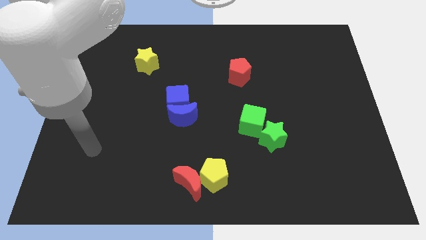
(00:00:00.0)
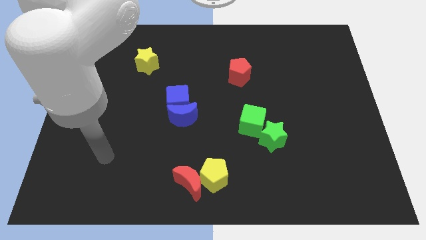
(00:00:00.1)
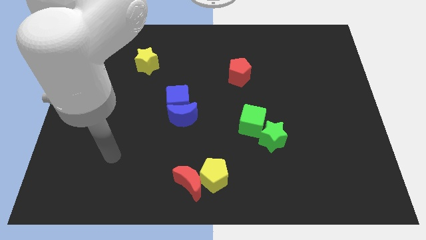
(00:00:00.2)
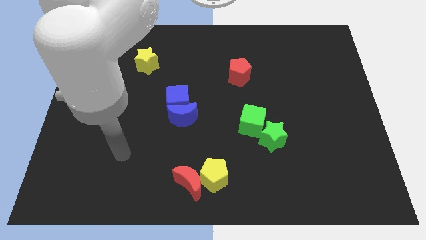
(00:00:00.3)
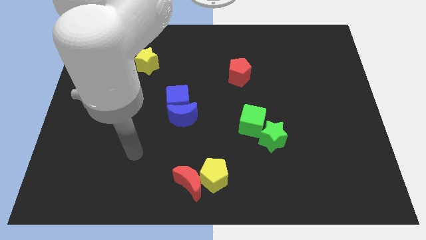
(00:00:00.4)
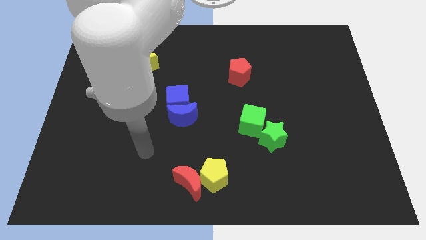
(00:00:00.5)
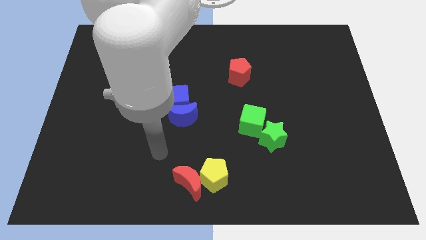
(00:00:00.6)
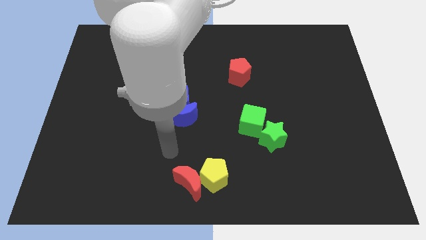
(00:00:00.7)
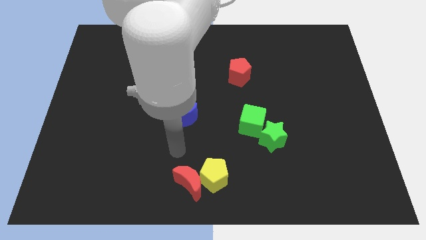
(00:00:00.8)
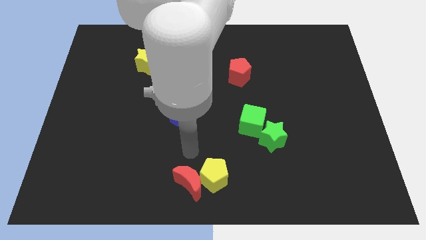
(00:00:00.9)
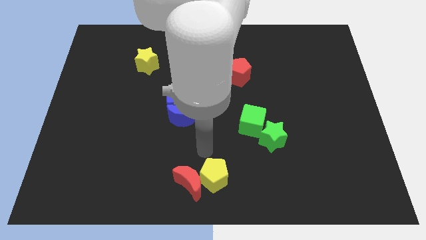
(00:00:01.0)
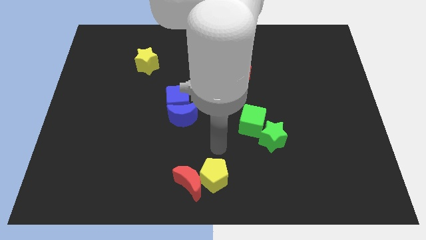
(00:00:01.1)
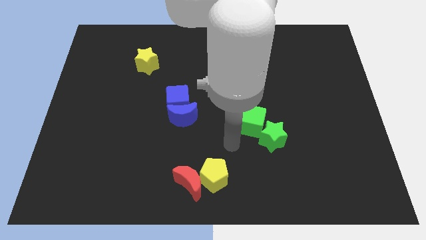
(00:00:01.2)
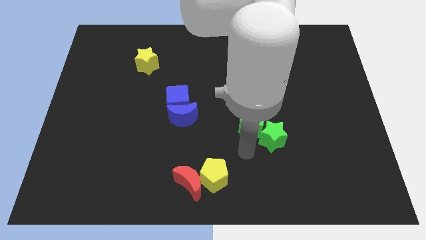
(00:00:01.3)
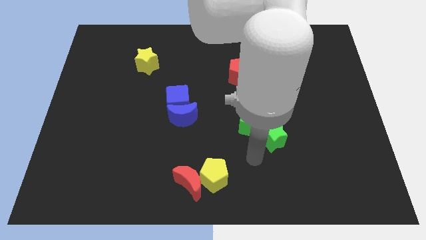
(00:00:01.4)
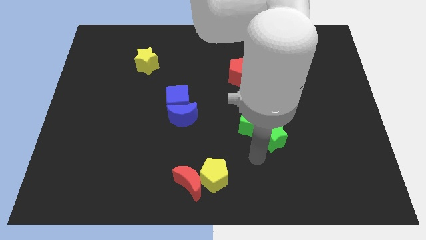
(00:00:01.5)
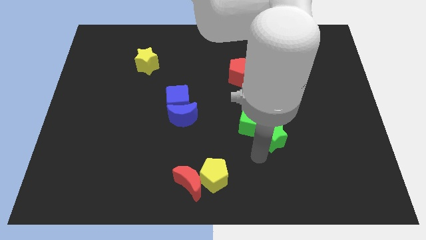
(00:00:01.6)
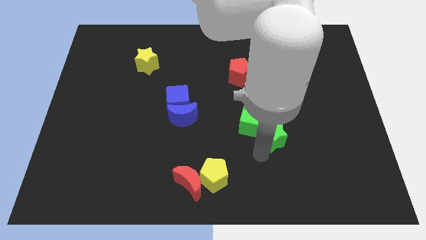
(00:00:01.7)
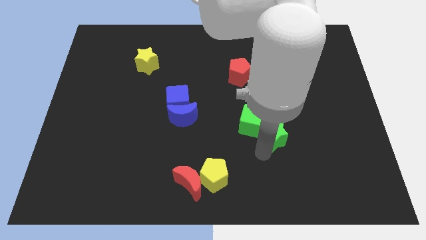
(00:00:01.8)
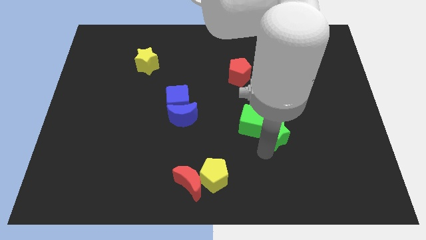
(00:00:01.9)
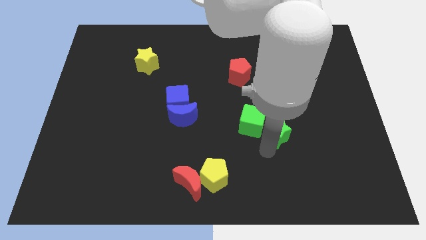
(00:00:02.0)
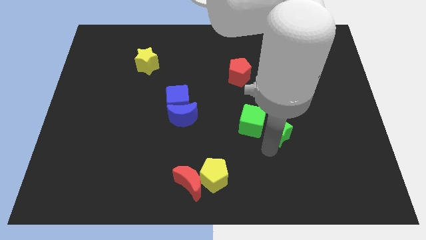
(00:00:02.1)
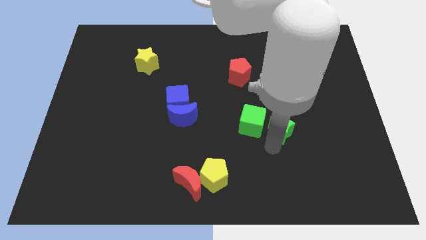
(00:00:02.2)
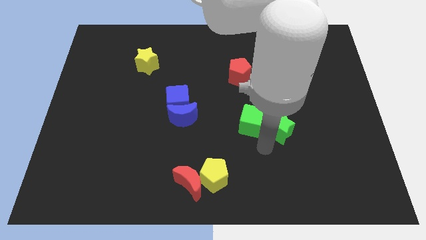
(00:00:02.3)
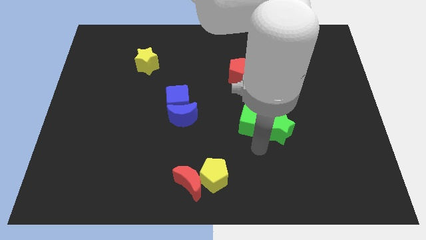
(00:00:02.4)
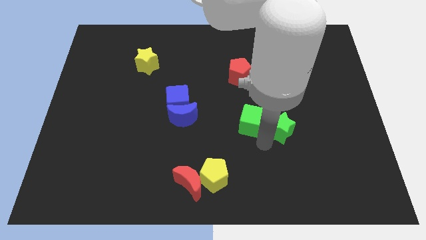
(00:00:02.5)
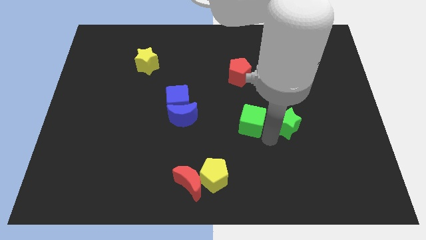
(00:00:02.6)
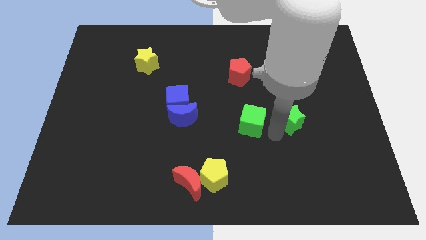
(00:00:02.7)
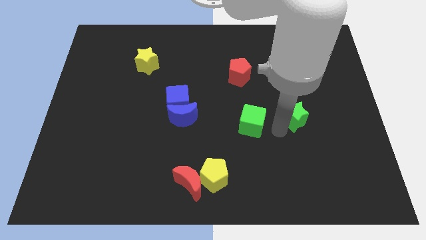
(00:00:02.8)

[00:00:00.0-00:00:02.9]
move the green star up and right a little

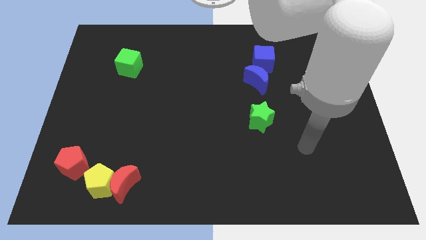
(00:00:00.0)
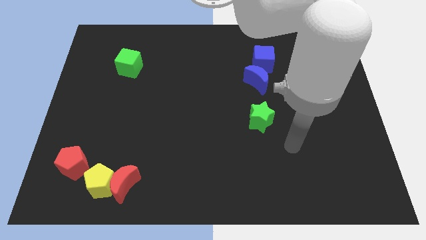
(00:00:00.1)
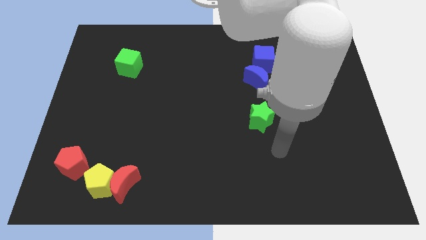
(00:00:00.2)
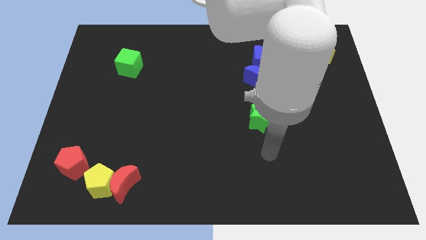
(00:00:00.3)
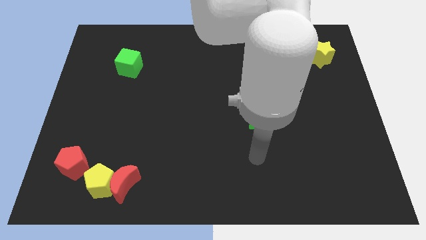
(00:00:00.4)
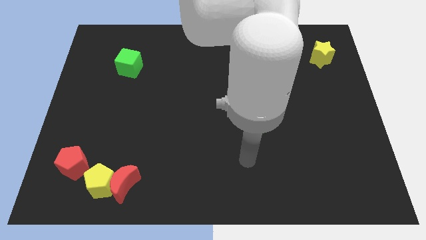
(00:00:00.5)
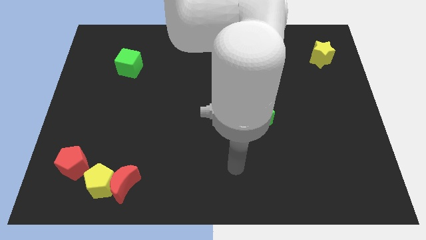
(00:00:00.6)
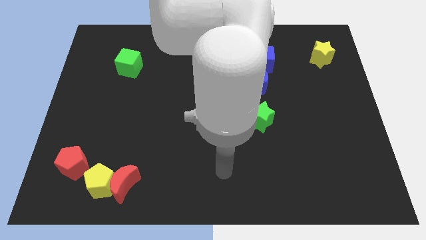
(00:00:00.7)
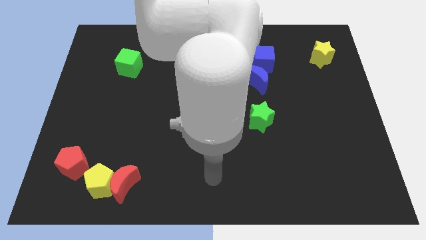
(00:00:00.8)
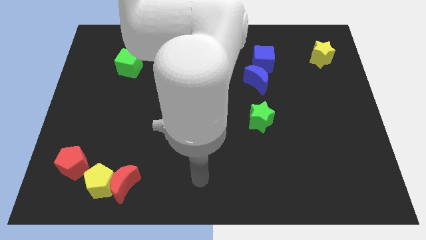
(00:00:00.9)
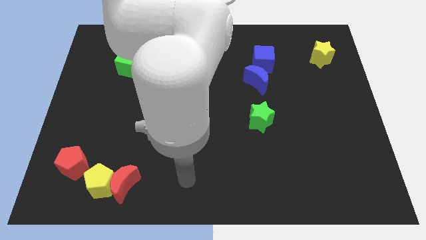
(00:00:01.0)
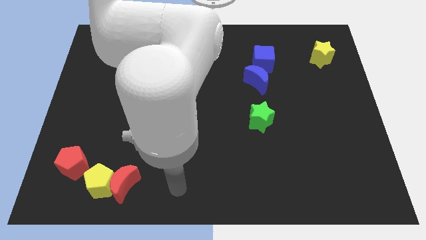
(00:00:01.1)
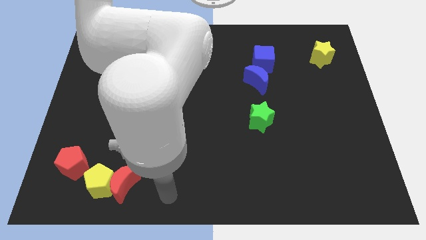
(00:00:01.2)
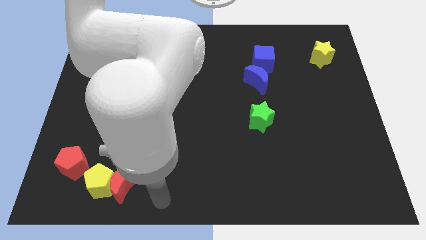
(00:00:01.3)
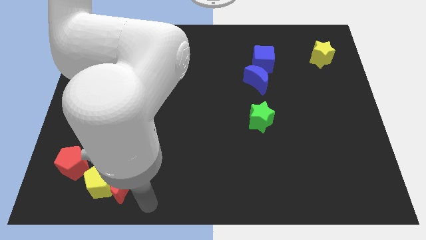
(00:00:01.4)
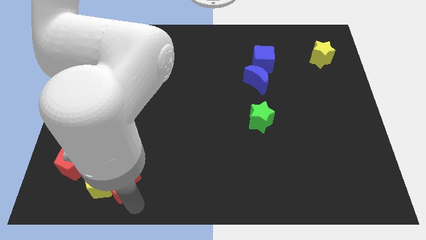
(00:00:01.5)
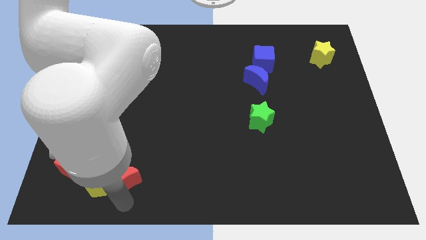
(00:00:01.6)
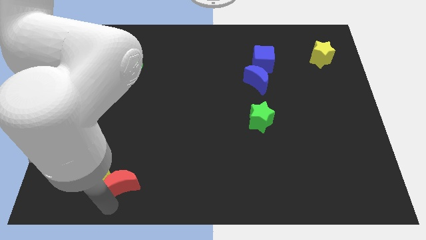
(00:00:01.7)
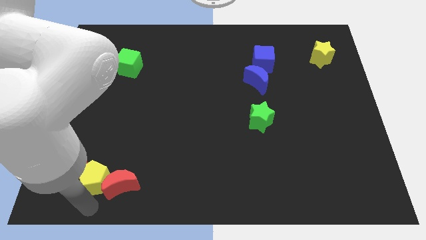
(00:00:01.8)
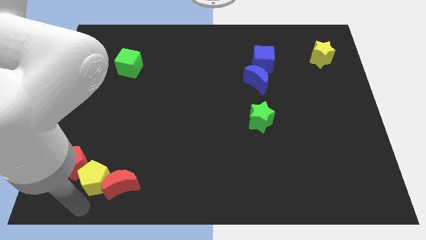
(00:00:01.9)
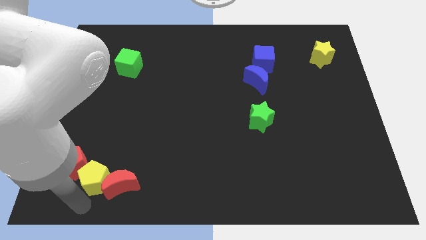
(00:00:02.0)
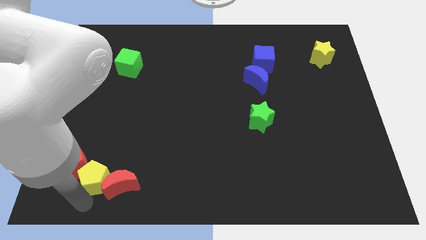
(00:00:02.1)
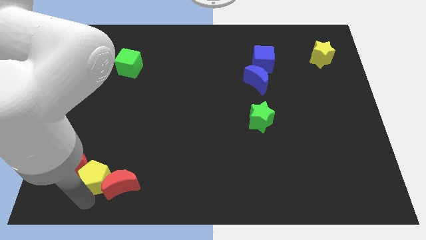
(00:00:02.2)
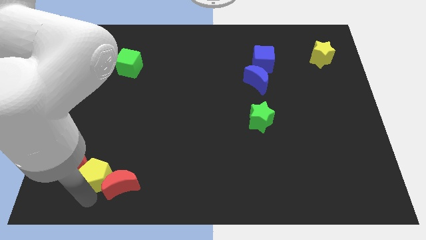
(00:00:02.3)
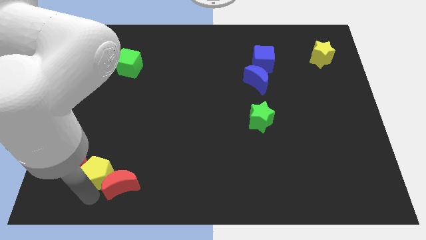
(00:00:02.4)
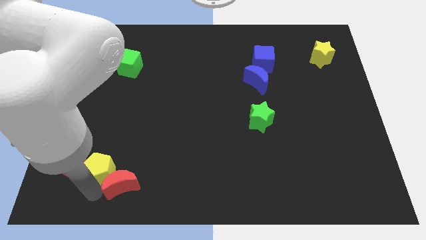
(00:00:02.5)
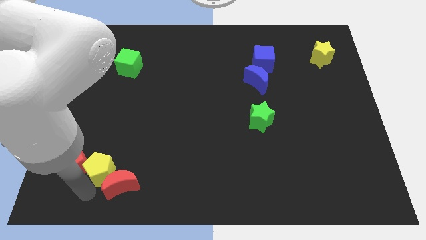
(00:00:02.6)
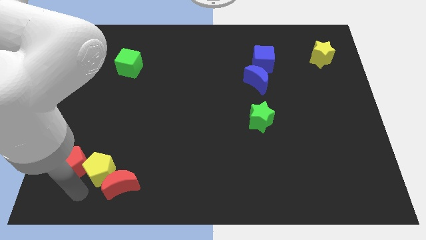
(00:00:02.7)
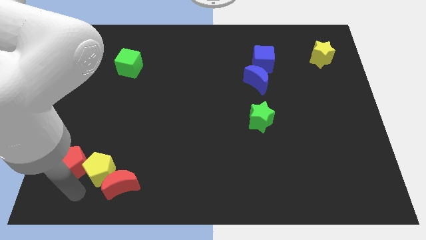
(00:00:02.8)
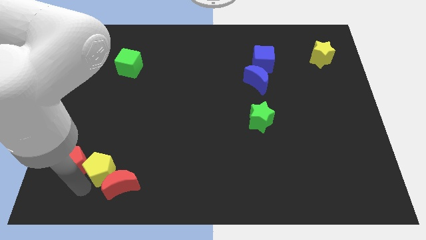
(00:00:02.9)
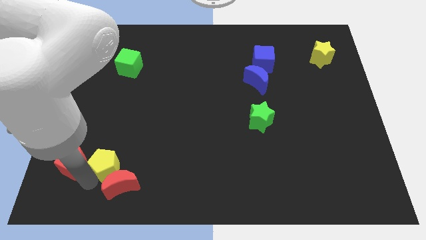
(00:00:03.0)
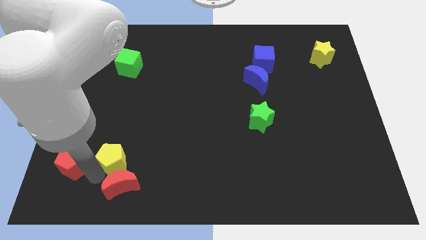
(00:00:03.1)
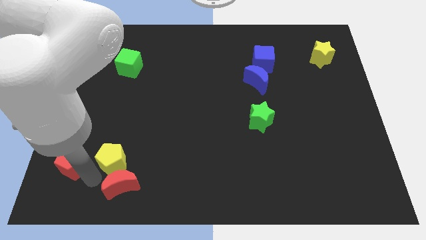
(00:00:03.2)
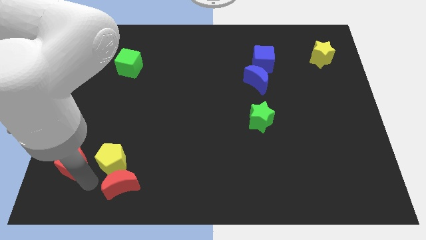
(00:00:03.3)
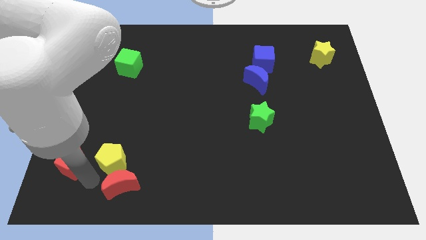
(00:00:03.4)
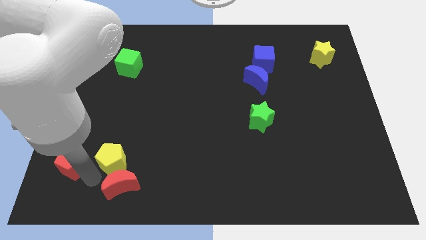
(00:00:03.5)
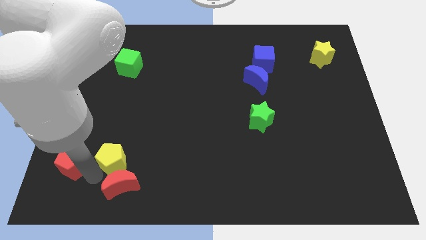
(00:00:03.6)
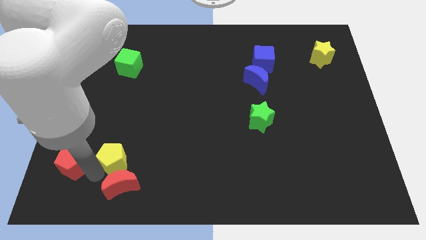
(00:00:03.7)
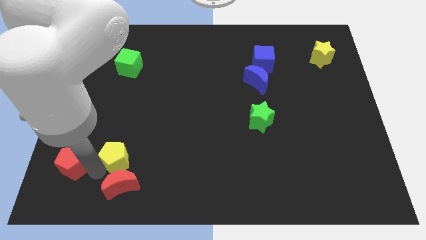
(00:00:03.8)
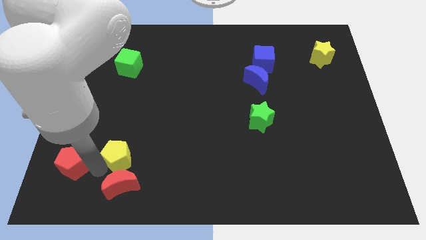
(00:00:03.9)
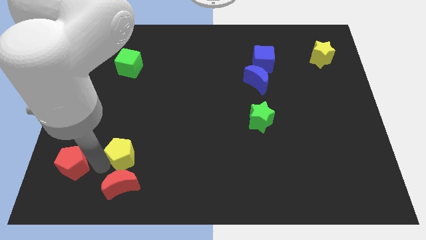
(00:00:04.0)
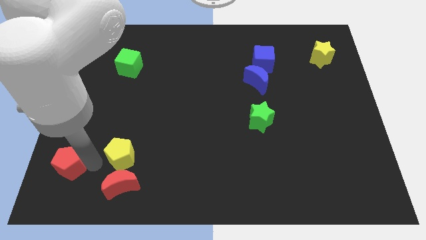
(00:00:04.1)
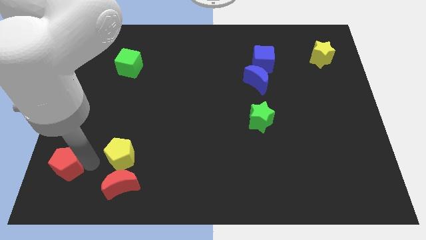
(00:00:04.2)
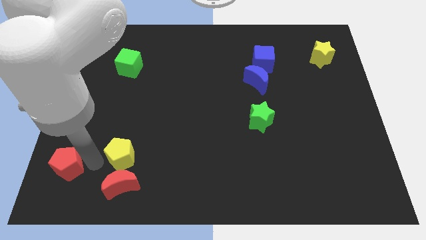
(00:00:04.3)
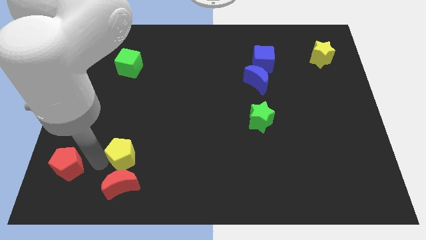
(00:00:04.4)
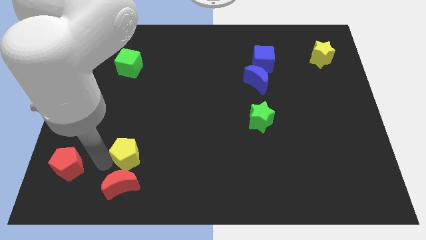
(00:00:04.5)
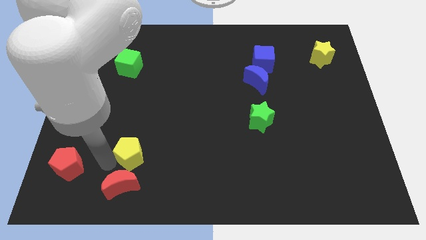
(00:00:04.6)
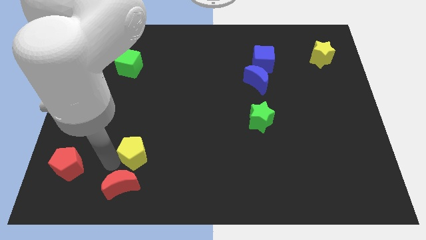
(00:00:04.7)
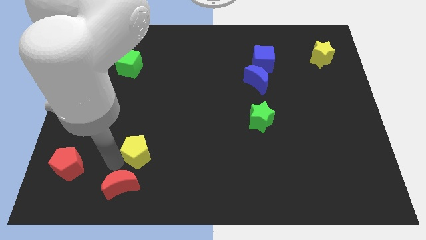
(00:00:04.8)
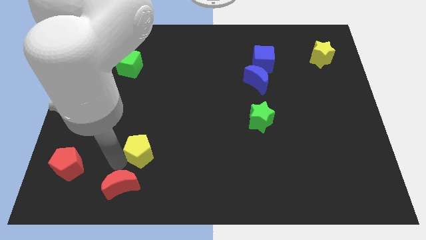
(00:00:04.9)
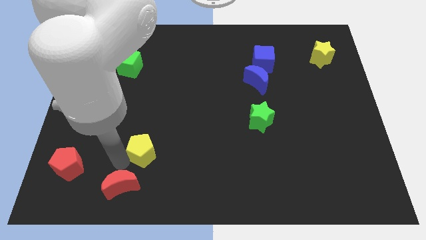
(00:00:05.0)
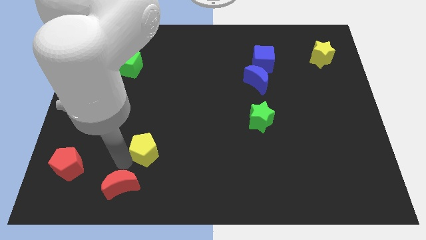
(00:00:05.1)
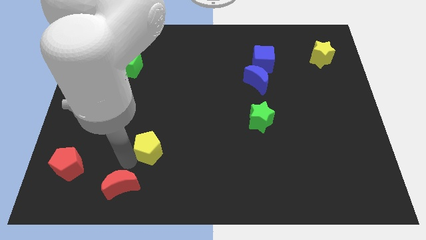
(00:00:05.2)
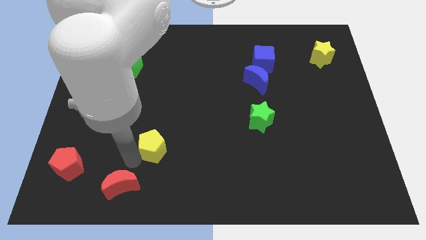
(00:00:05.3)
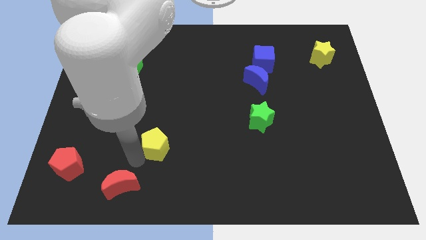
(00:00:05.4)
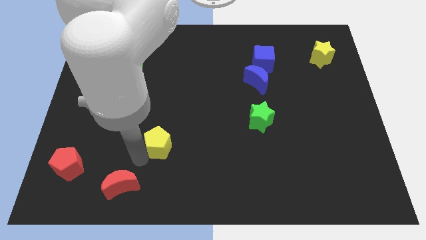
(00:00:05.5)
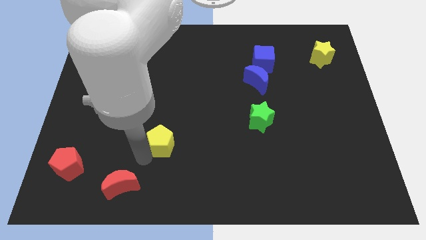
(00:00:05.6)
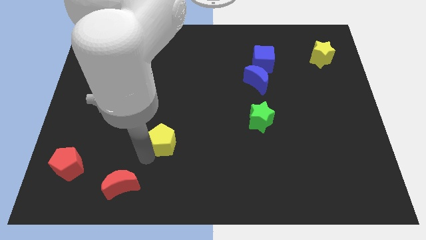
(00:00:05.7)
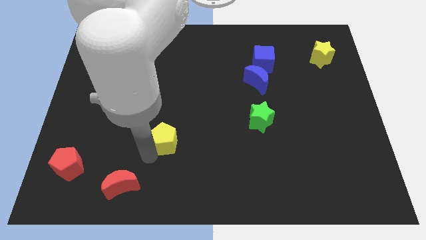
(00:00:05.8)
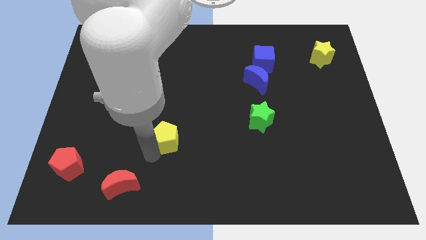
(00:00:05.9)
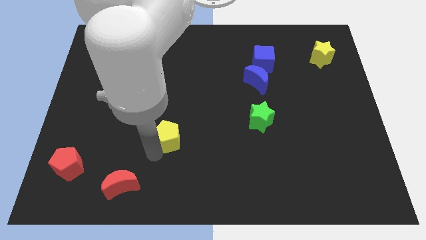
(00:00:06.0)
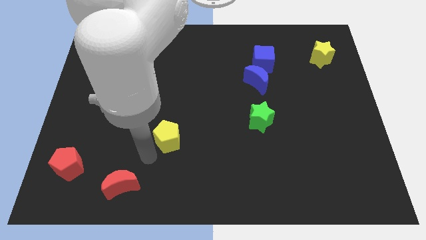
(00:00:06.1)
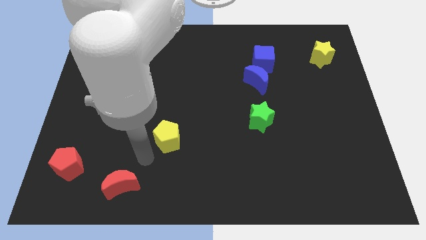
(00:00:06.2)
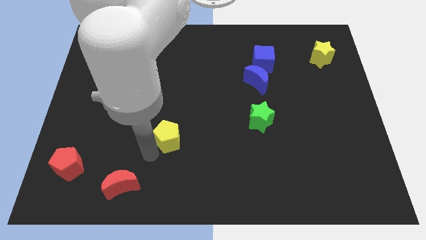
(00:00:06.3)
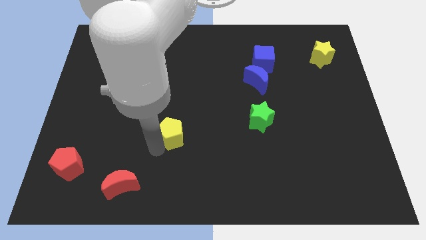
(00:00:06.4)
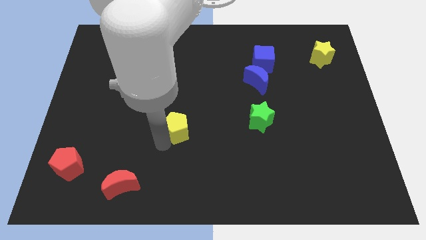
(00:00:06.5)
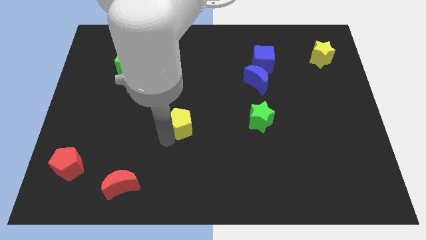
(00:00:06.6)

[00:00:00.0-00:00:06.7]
move the yellow pentagon up and to the right
